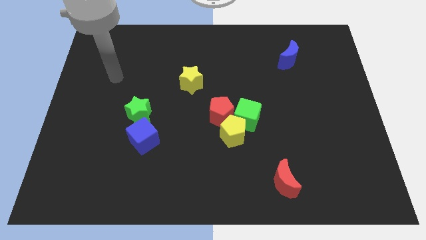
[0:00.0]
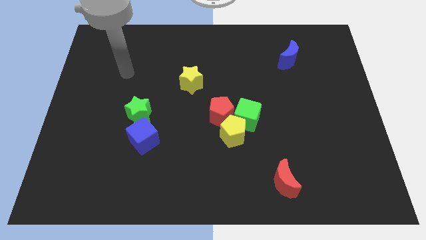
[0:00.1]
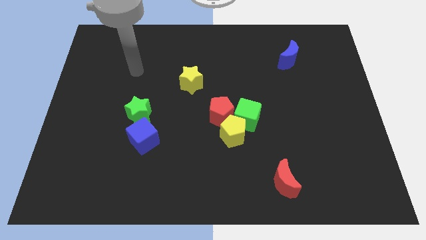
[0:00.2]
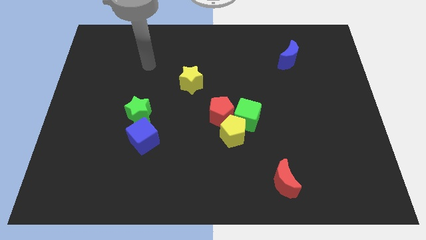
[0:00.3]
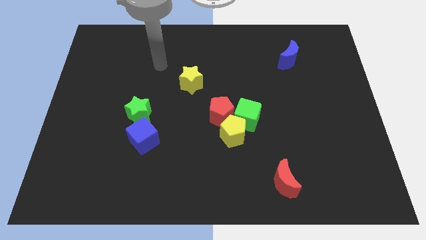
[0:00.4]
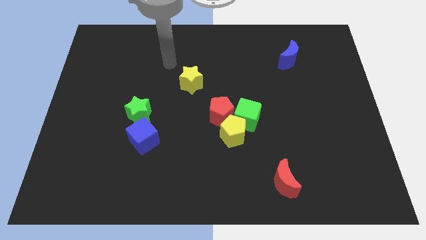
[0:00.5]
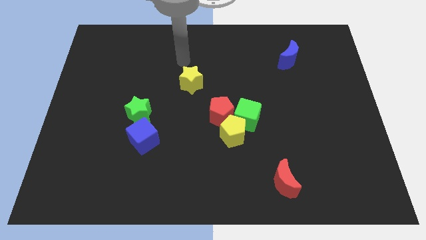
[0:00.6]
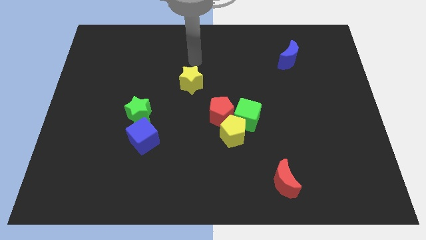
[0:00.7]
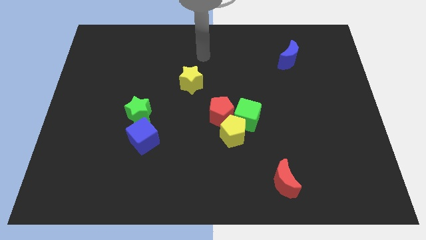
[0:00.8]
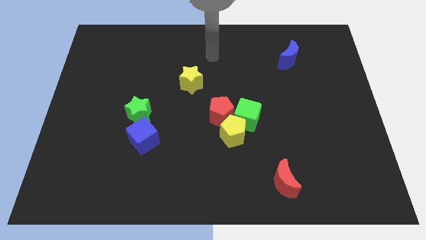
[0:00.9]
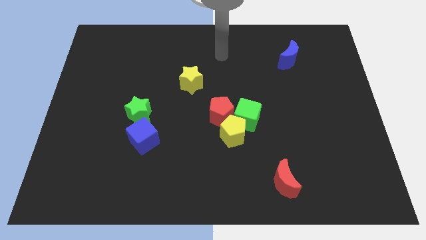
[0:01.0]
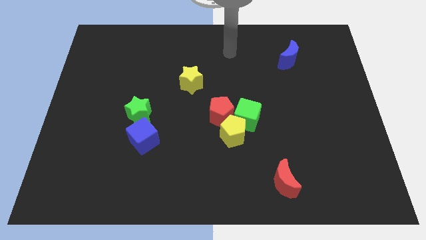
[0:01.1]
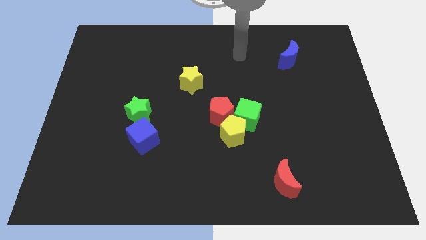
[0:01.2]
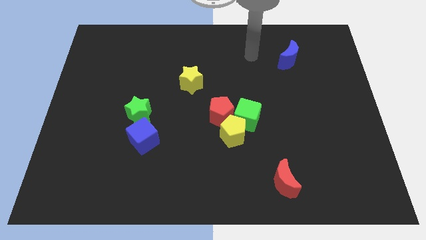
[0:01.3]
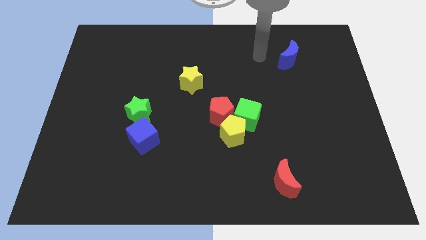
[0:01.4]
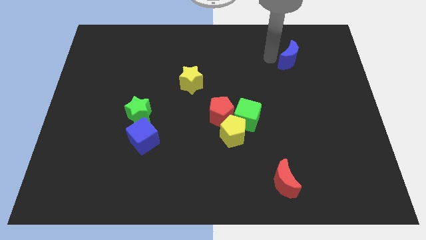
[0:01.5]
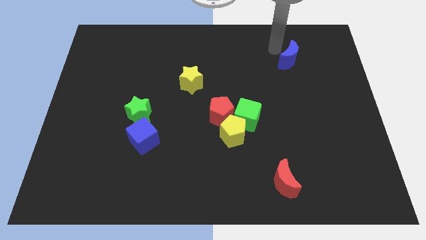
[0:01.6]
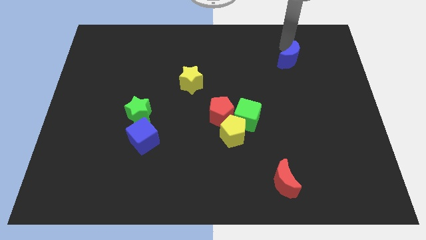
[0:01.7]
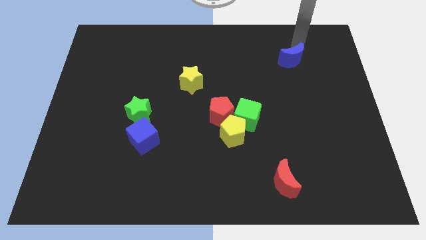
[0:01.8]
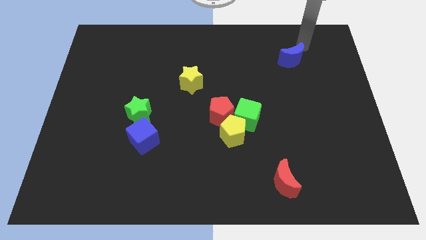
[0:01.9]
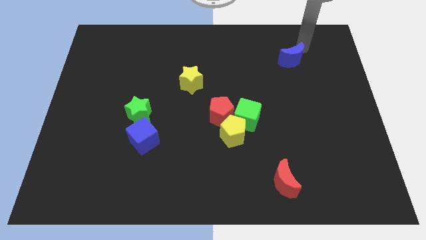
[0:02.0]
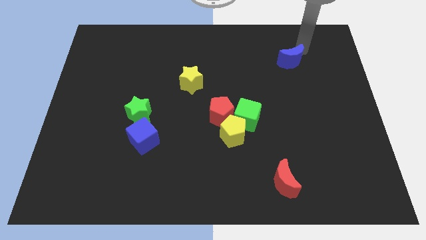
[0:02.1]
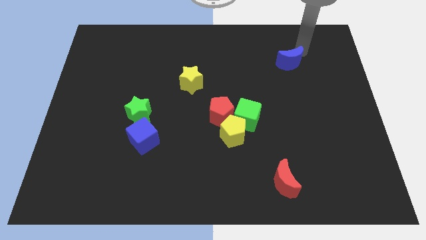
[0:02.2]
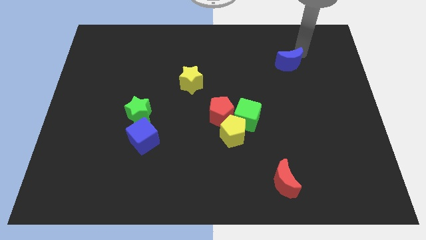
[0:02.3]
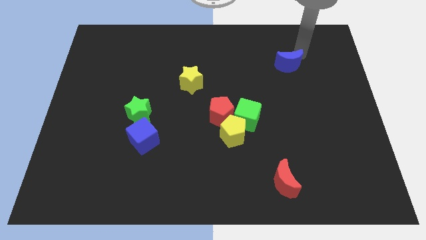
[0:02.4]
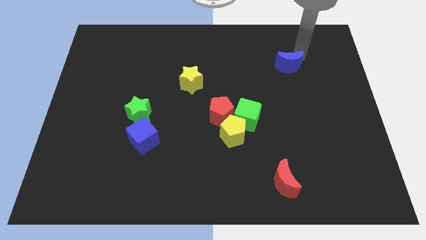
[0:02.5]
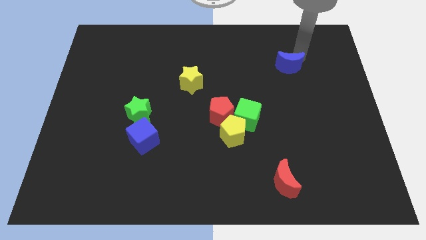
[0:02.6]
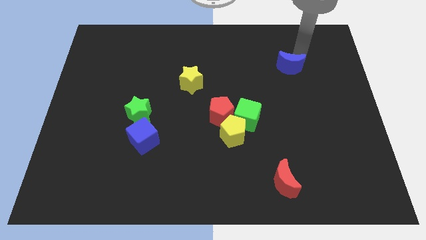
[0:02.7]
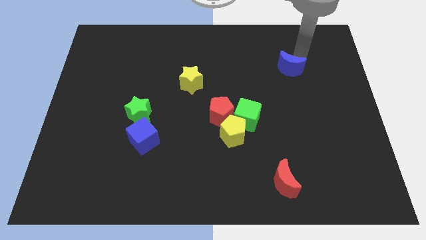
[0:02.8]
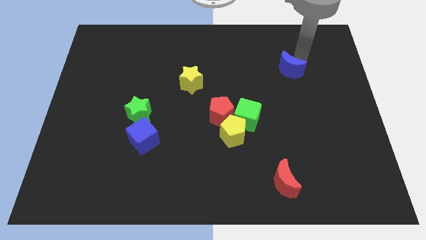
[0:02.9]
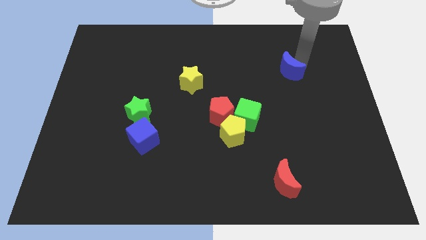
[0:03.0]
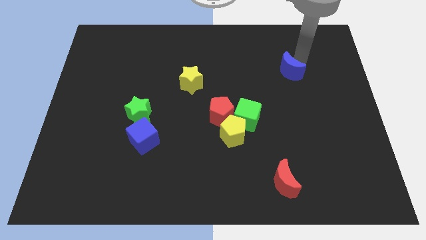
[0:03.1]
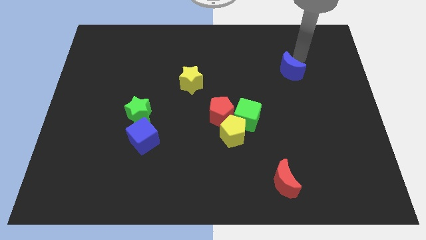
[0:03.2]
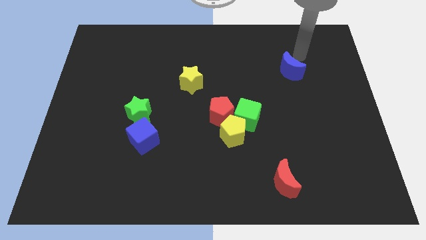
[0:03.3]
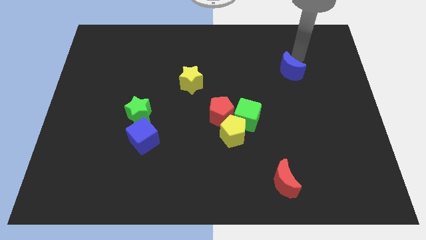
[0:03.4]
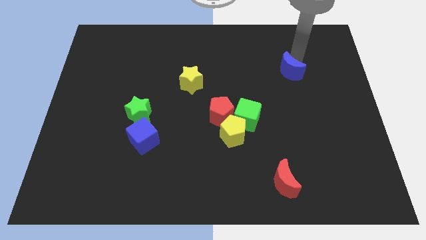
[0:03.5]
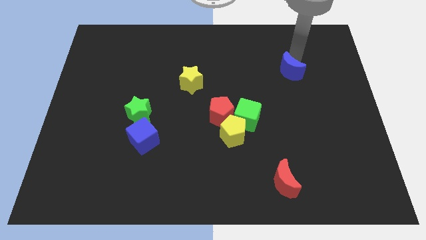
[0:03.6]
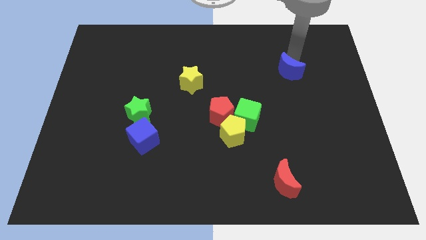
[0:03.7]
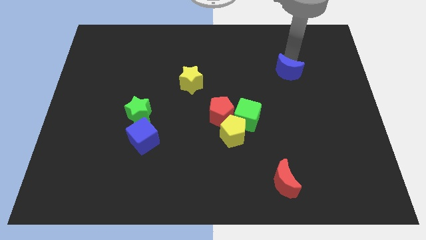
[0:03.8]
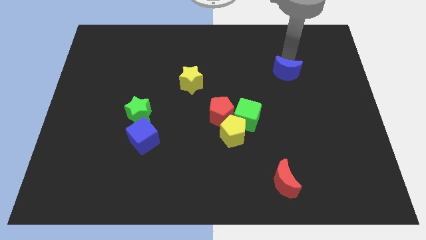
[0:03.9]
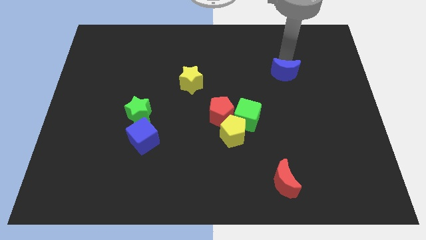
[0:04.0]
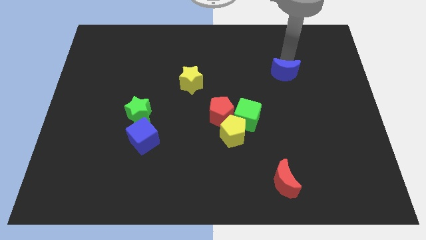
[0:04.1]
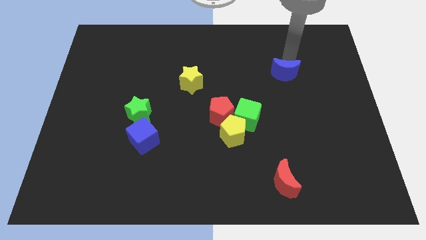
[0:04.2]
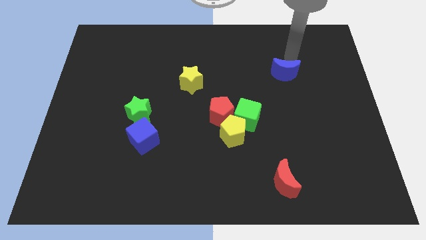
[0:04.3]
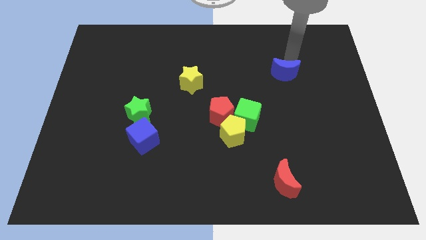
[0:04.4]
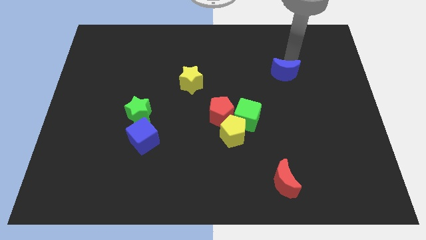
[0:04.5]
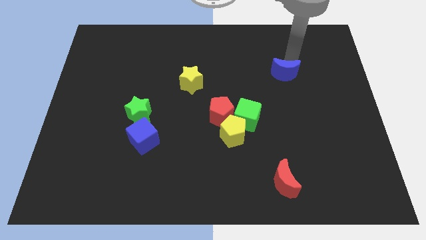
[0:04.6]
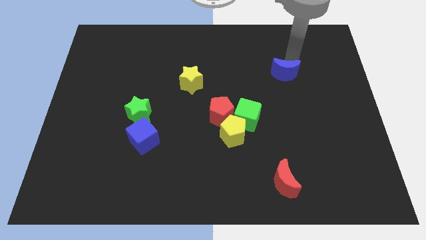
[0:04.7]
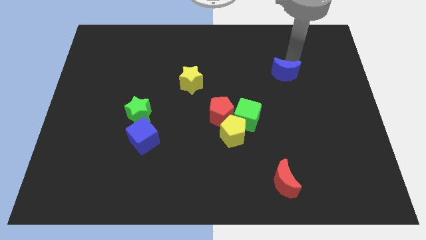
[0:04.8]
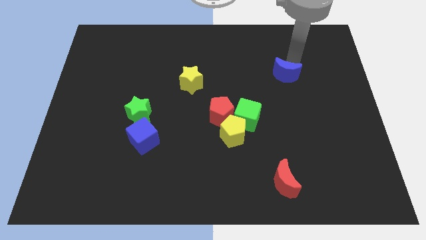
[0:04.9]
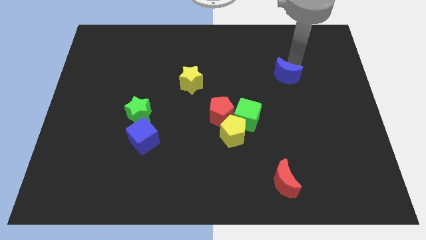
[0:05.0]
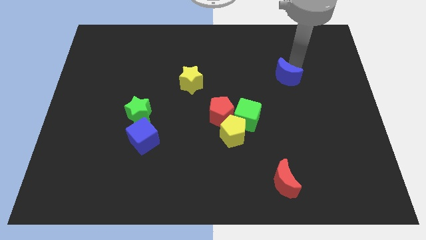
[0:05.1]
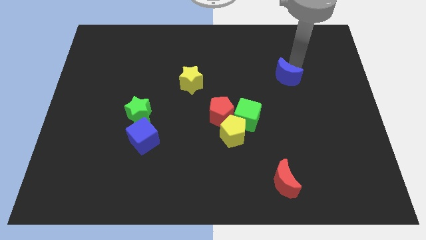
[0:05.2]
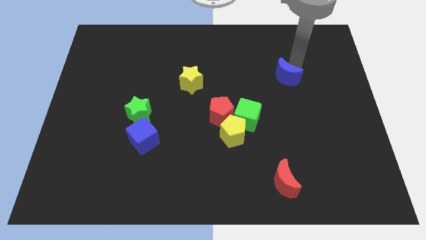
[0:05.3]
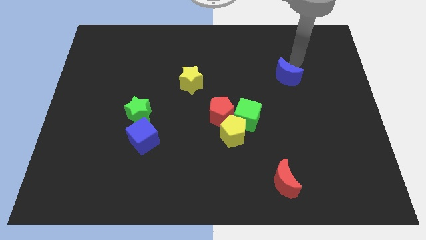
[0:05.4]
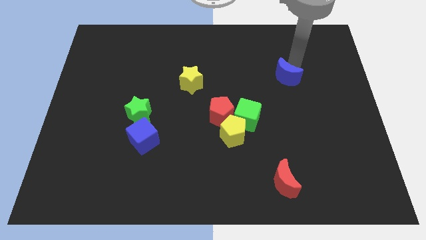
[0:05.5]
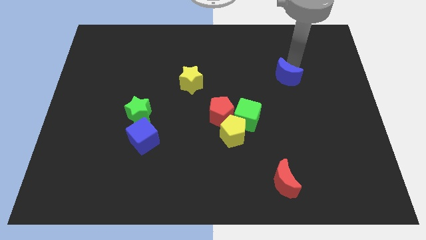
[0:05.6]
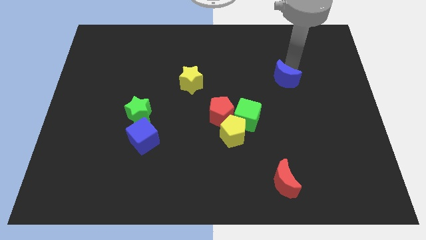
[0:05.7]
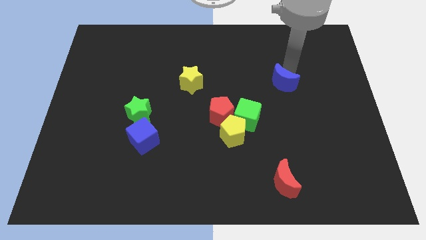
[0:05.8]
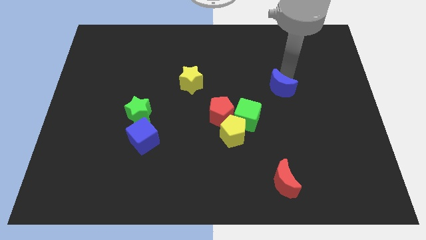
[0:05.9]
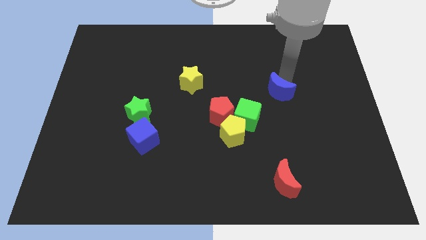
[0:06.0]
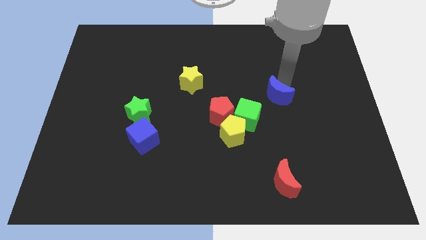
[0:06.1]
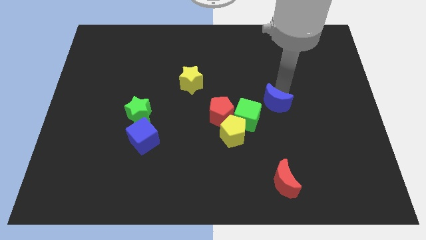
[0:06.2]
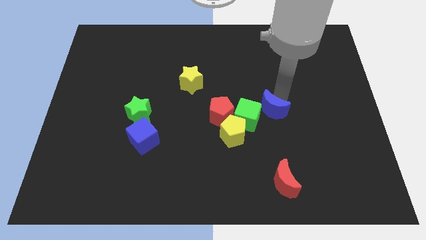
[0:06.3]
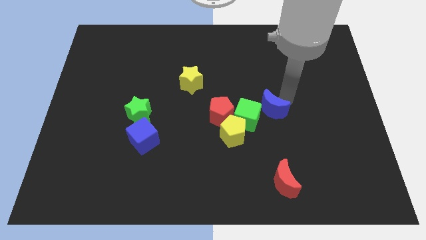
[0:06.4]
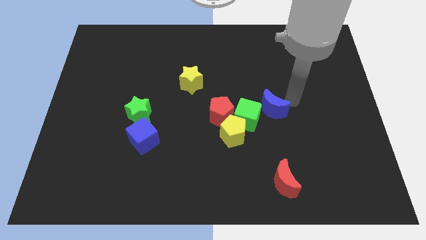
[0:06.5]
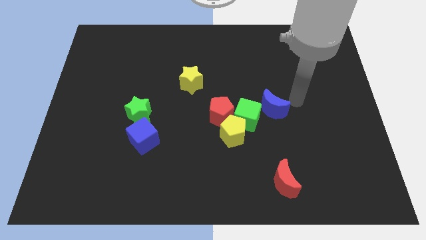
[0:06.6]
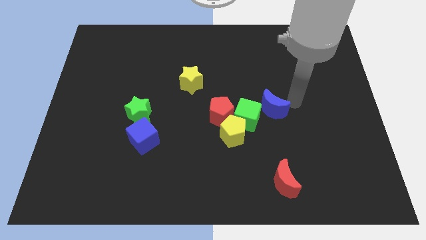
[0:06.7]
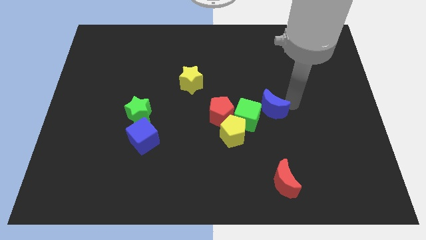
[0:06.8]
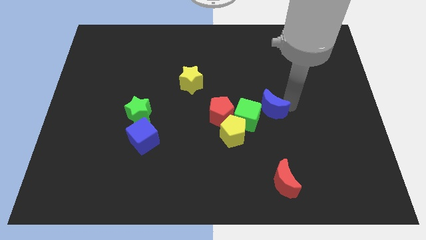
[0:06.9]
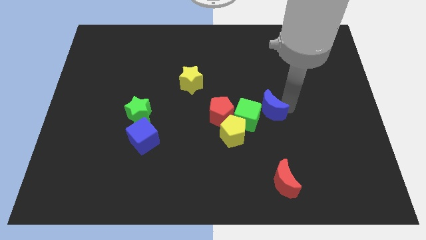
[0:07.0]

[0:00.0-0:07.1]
put the blue moon towards the green cube

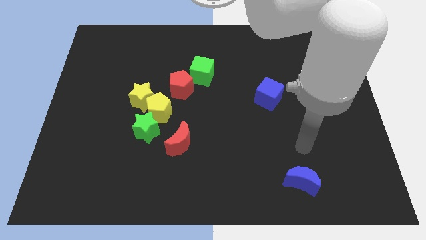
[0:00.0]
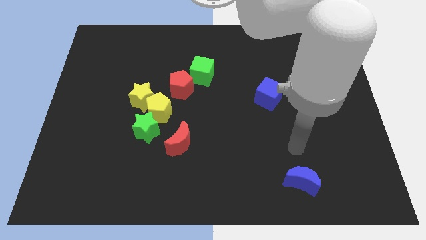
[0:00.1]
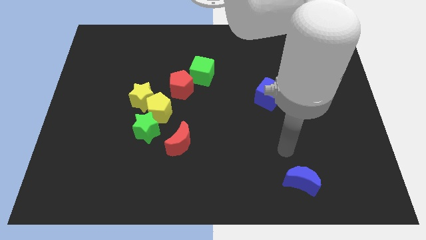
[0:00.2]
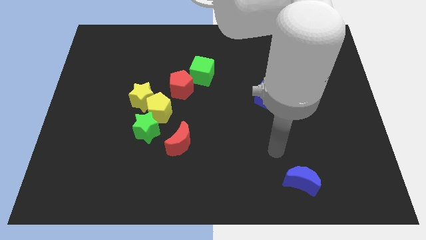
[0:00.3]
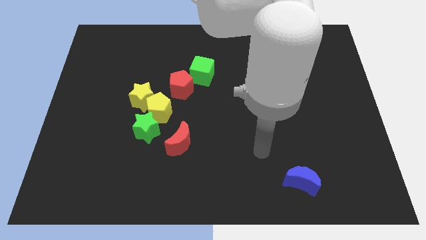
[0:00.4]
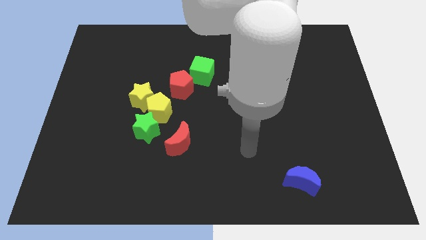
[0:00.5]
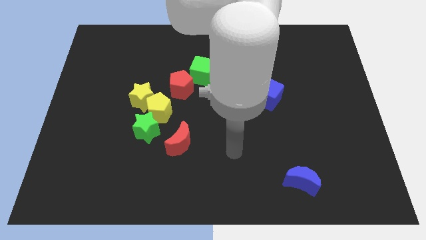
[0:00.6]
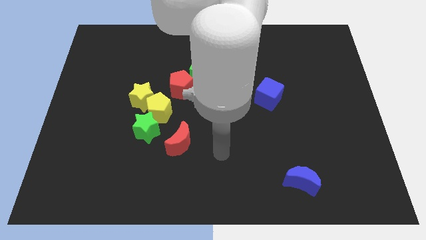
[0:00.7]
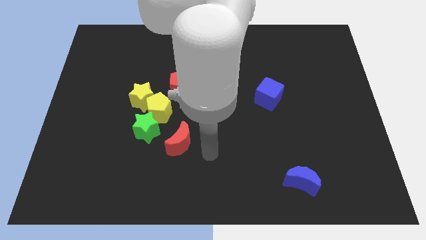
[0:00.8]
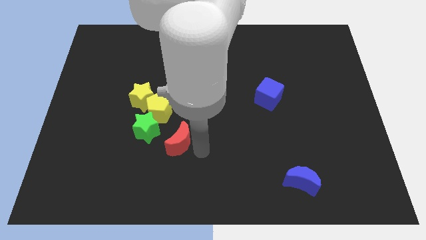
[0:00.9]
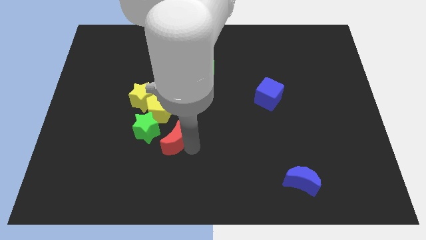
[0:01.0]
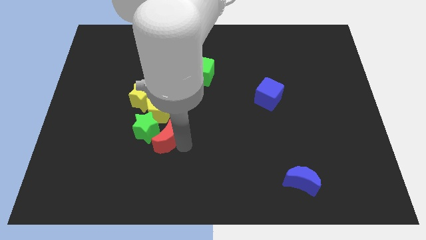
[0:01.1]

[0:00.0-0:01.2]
put the red moon to the green star
